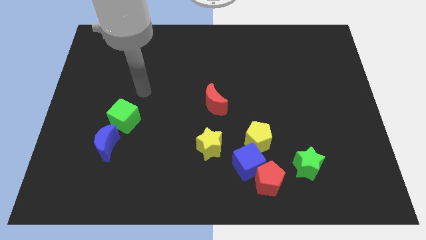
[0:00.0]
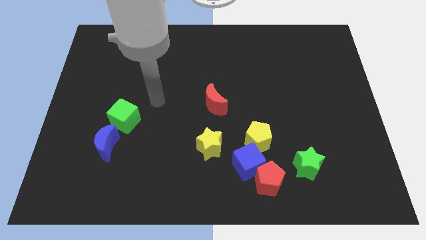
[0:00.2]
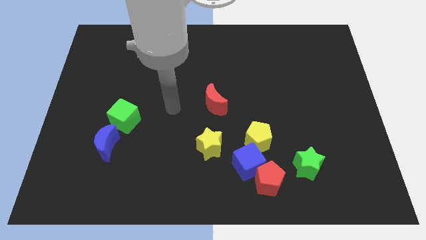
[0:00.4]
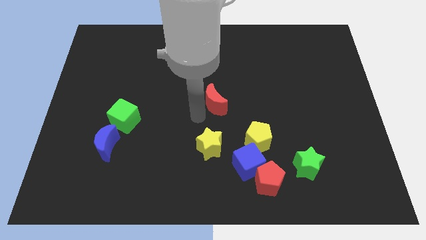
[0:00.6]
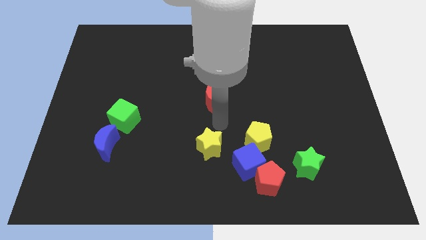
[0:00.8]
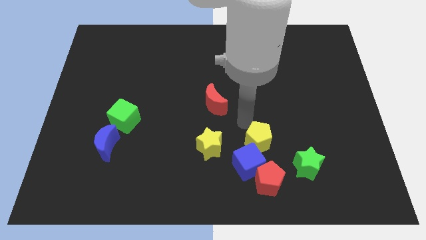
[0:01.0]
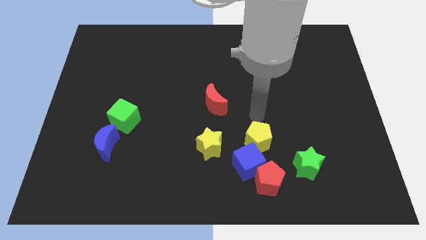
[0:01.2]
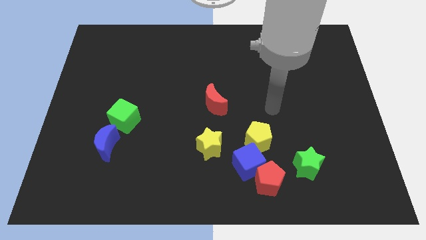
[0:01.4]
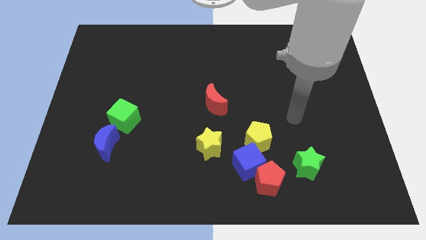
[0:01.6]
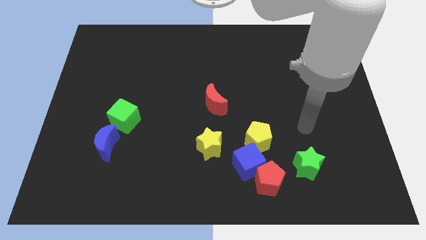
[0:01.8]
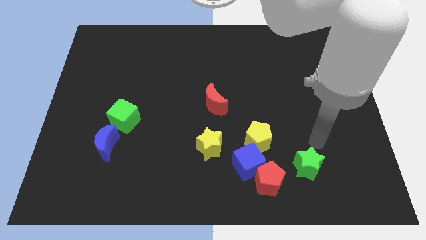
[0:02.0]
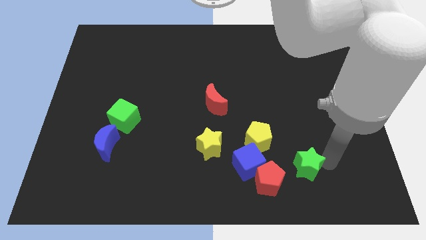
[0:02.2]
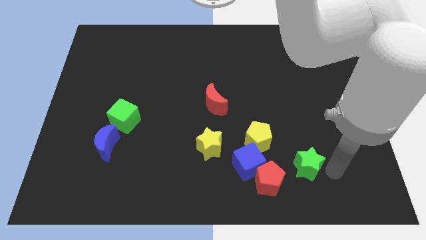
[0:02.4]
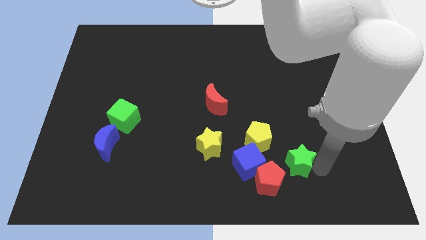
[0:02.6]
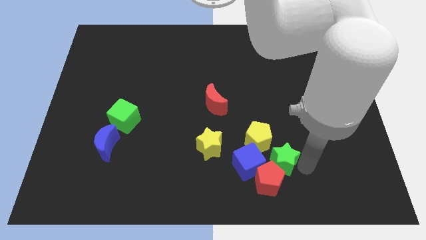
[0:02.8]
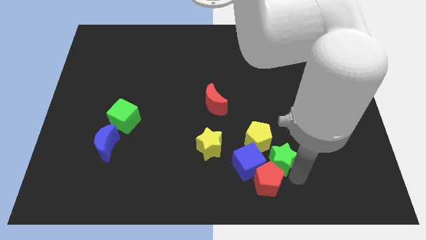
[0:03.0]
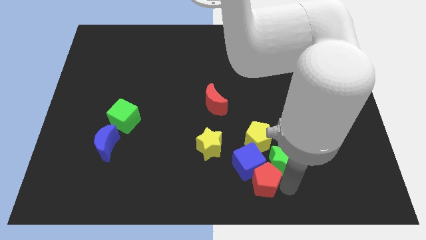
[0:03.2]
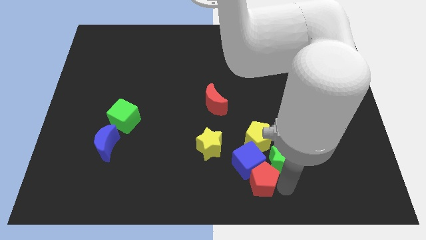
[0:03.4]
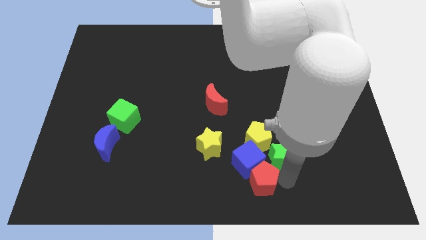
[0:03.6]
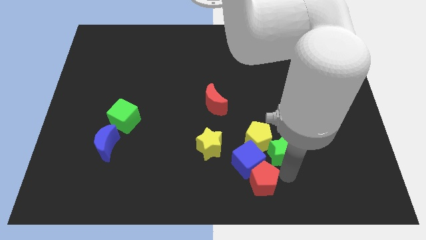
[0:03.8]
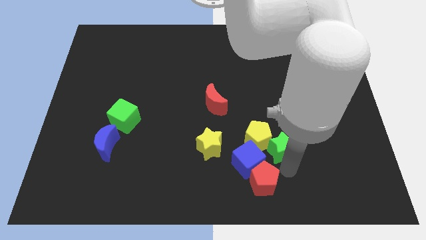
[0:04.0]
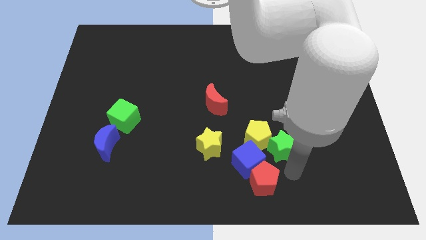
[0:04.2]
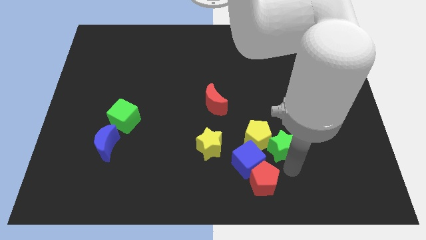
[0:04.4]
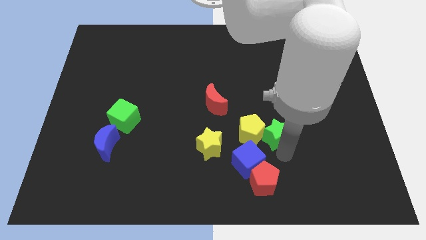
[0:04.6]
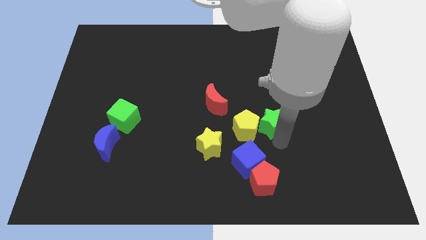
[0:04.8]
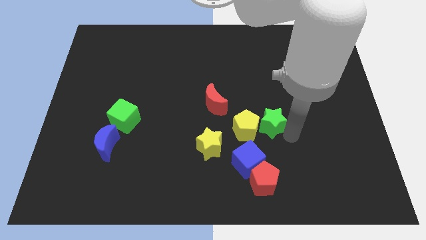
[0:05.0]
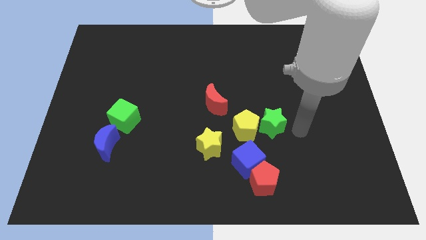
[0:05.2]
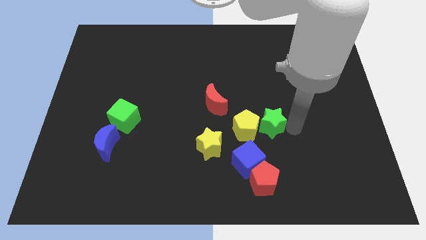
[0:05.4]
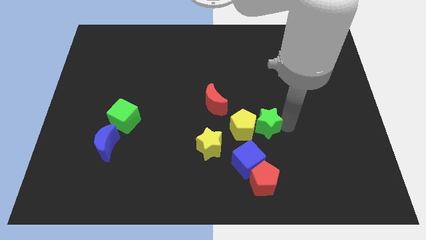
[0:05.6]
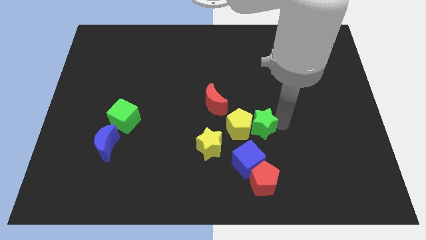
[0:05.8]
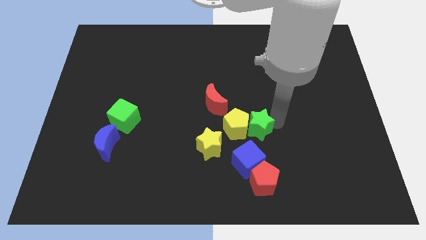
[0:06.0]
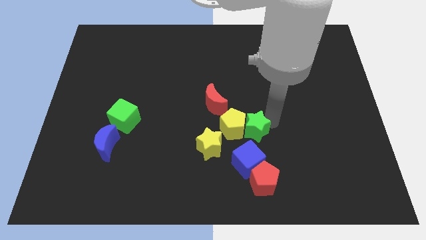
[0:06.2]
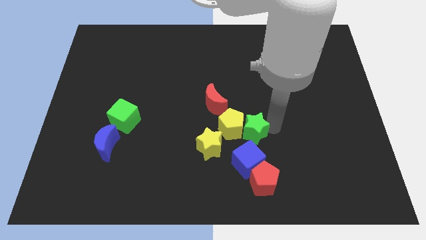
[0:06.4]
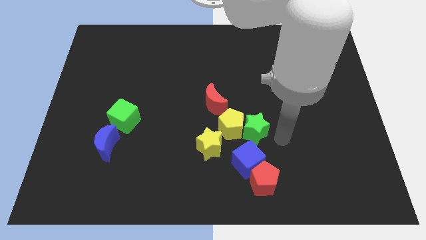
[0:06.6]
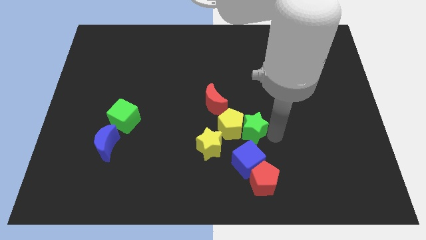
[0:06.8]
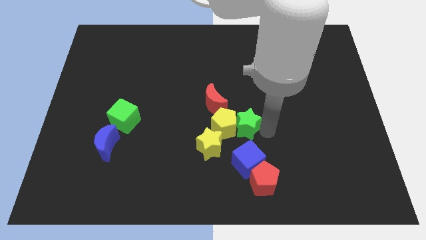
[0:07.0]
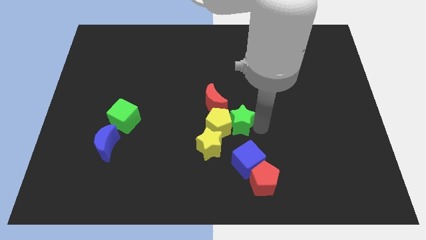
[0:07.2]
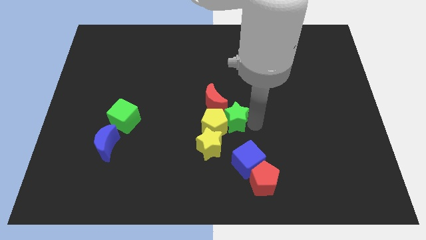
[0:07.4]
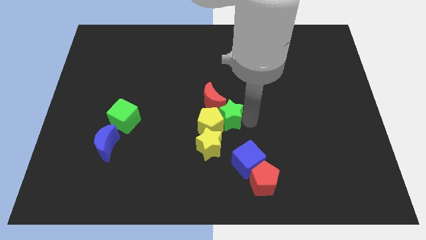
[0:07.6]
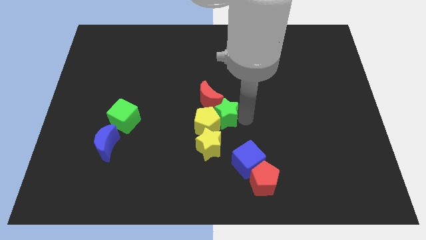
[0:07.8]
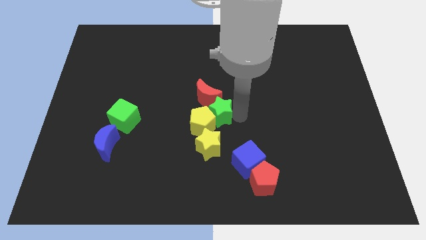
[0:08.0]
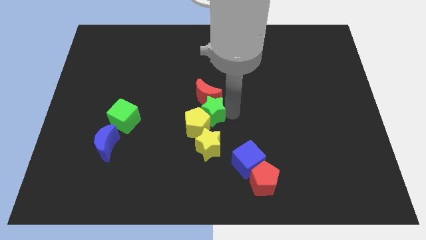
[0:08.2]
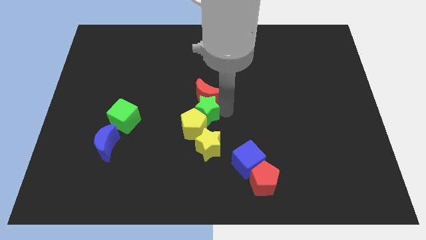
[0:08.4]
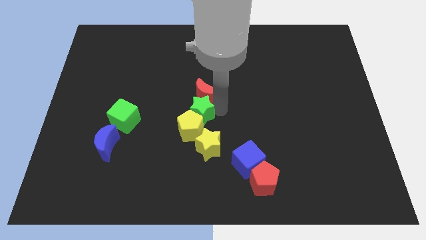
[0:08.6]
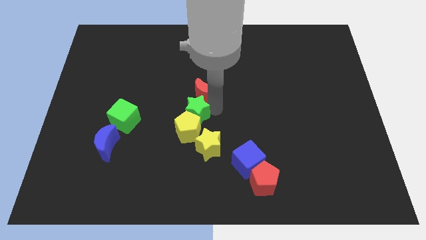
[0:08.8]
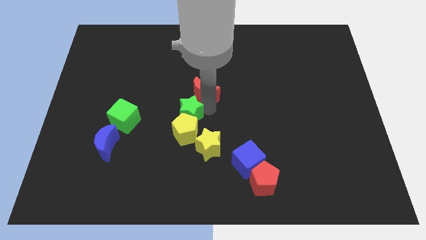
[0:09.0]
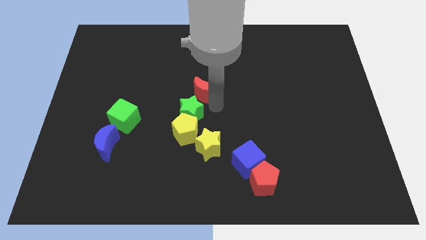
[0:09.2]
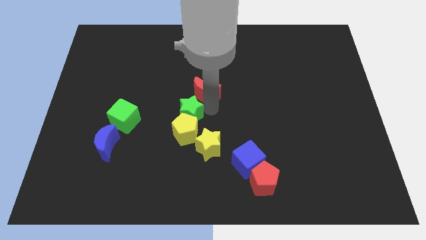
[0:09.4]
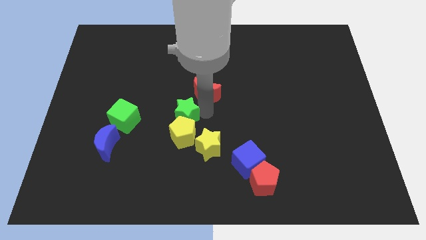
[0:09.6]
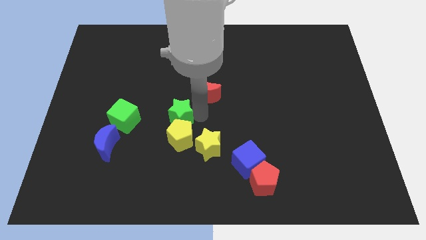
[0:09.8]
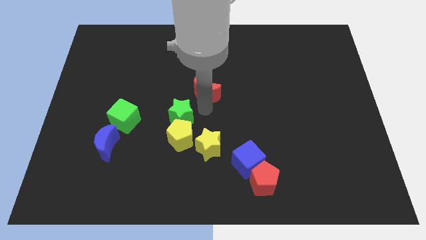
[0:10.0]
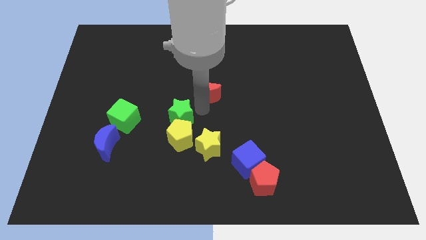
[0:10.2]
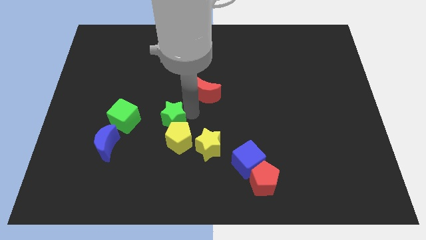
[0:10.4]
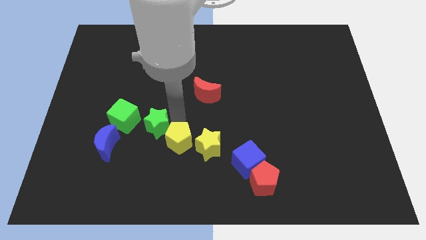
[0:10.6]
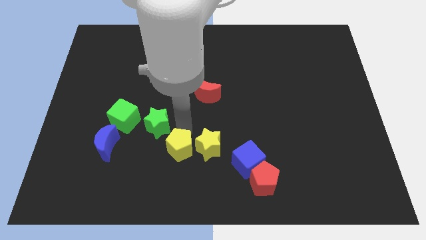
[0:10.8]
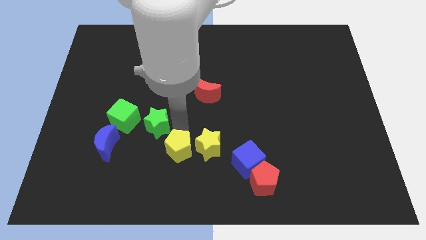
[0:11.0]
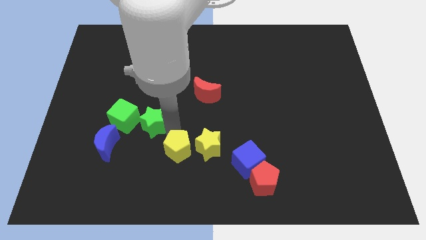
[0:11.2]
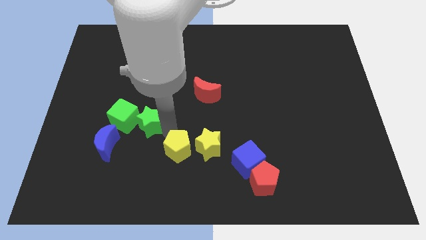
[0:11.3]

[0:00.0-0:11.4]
put the green star towards the green cube

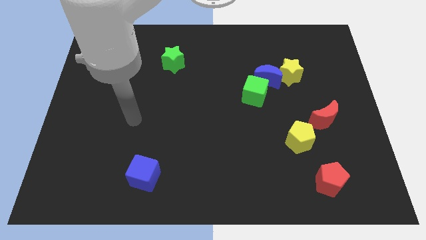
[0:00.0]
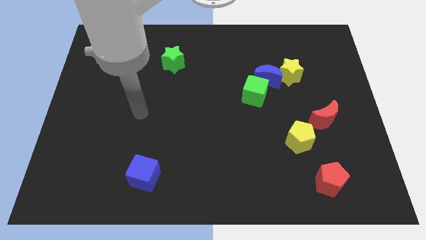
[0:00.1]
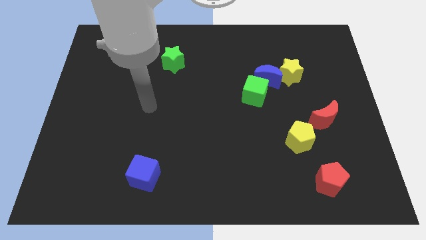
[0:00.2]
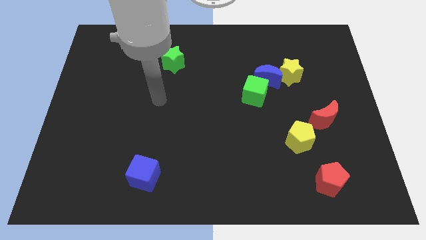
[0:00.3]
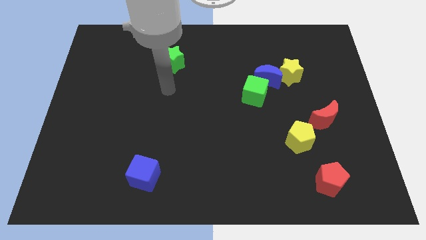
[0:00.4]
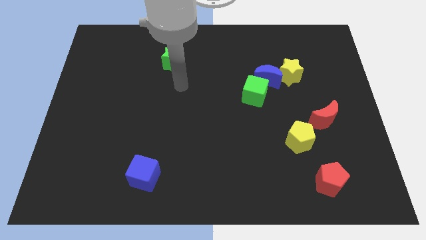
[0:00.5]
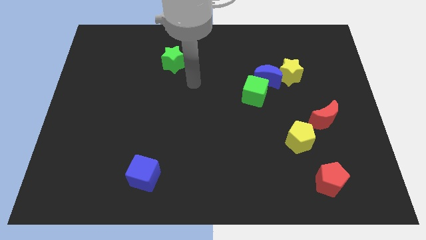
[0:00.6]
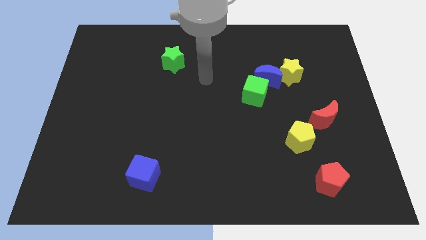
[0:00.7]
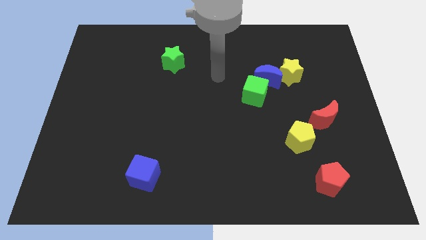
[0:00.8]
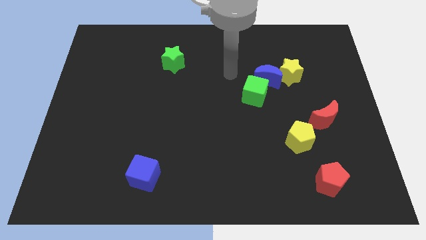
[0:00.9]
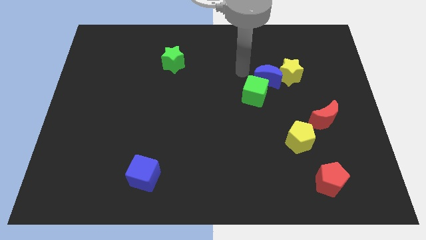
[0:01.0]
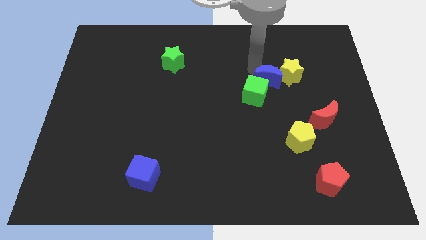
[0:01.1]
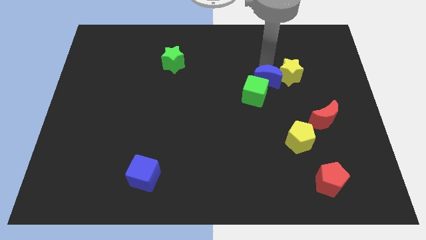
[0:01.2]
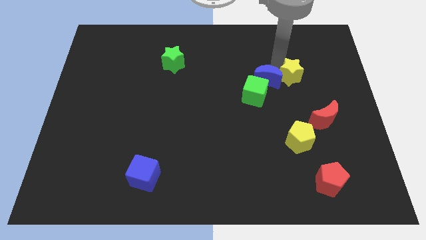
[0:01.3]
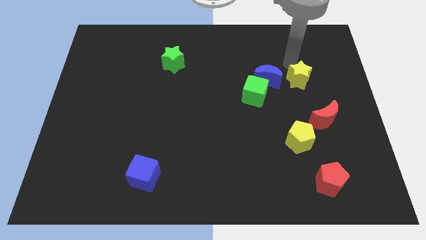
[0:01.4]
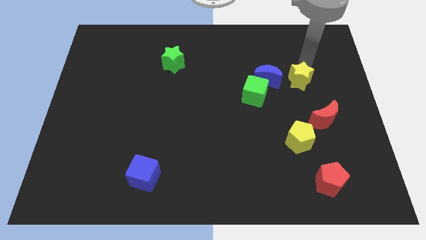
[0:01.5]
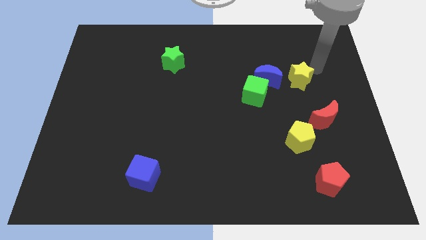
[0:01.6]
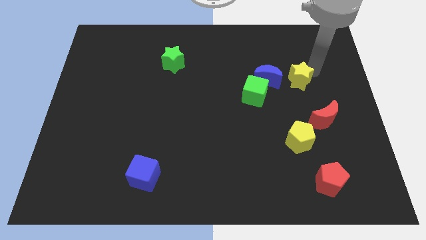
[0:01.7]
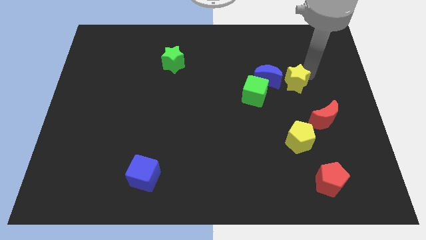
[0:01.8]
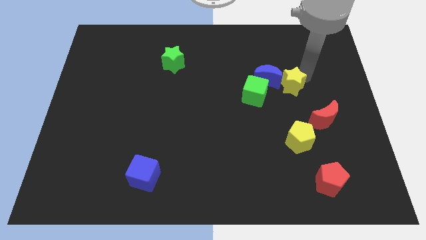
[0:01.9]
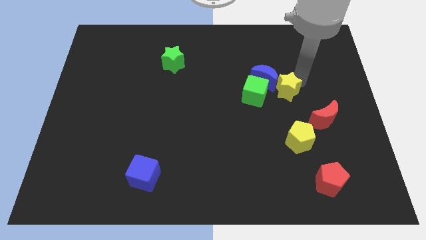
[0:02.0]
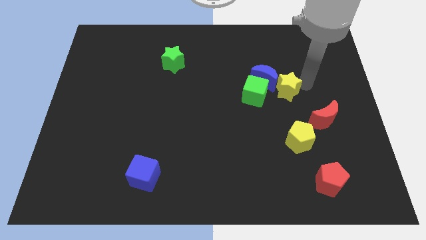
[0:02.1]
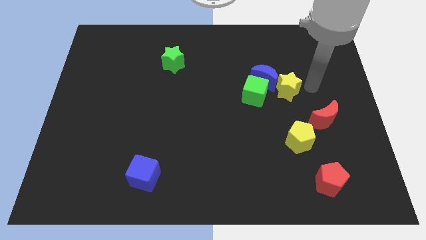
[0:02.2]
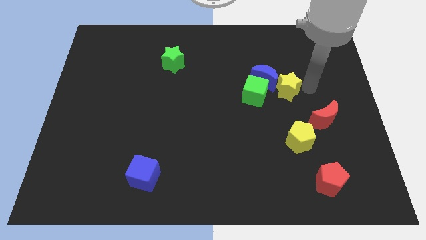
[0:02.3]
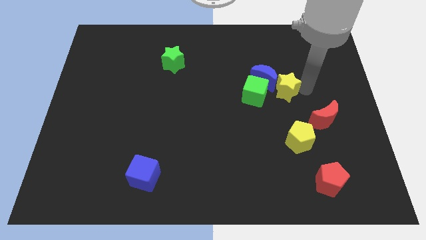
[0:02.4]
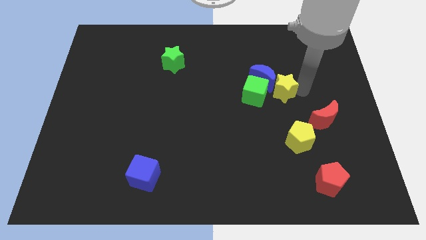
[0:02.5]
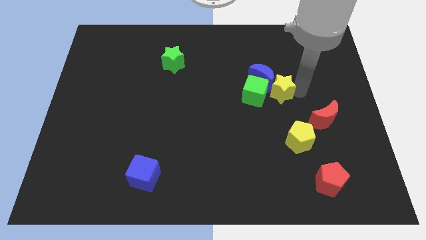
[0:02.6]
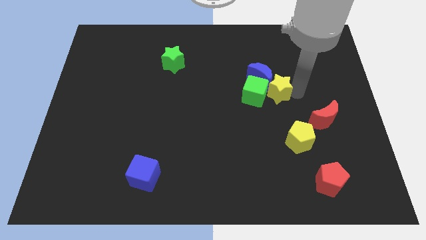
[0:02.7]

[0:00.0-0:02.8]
push the yellow star to the green cube
